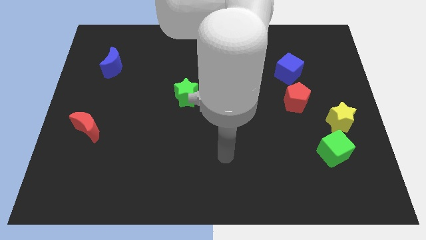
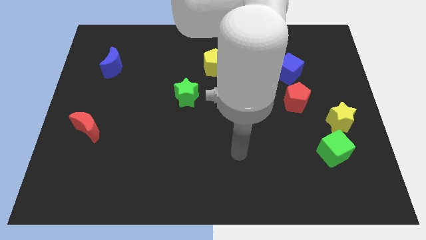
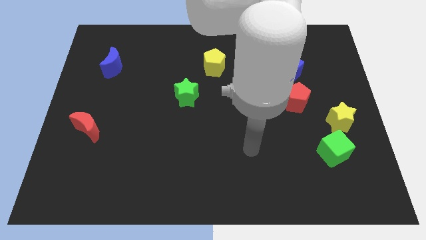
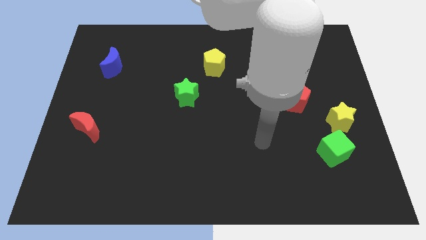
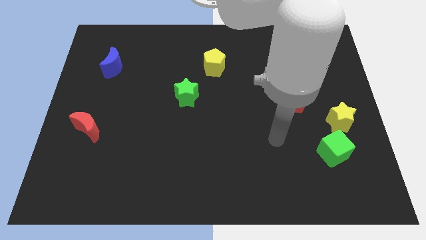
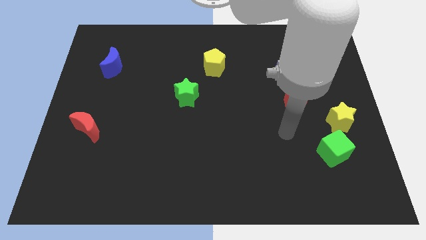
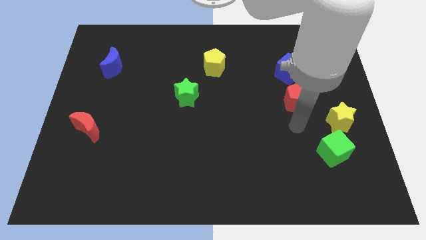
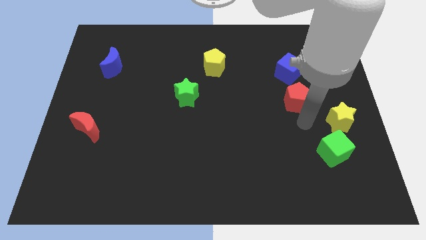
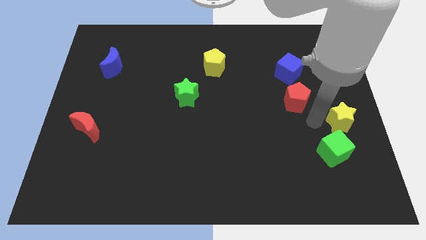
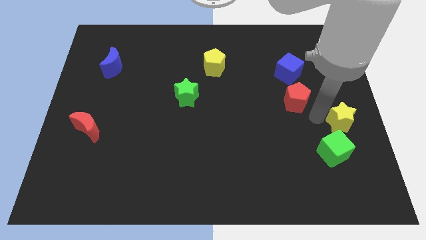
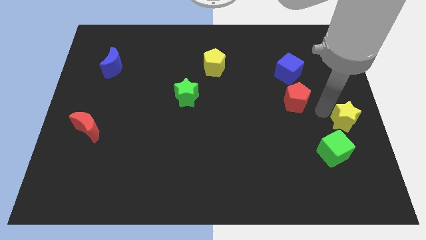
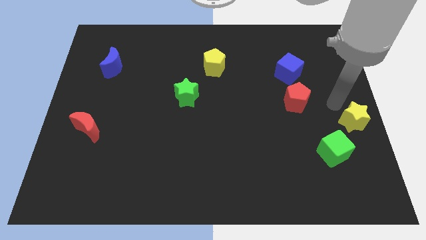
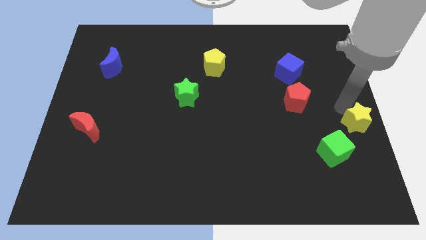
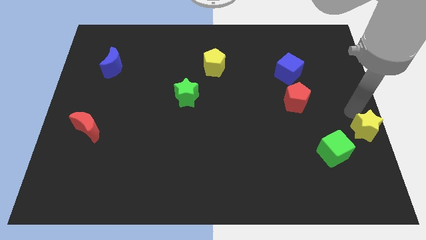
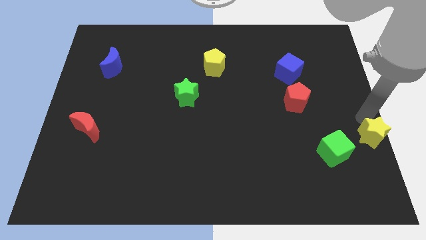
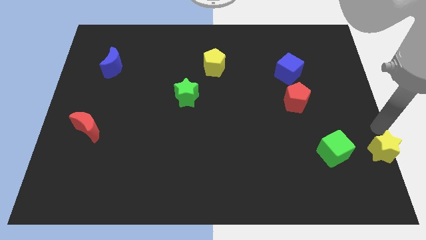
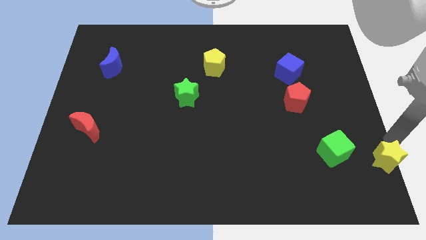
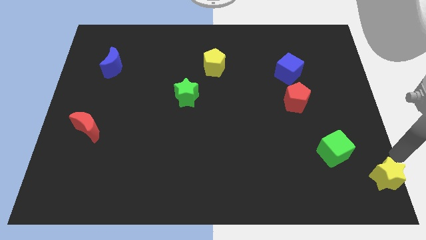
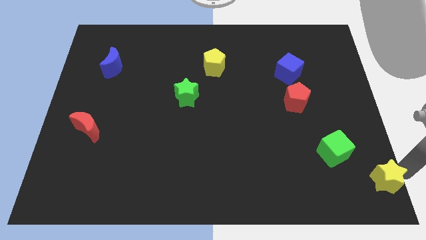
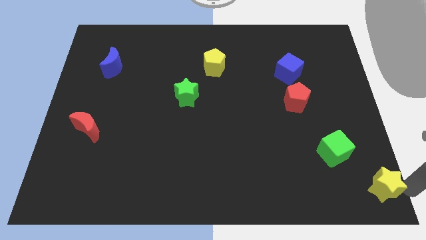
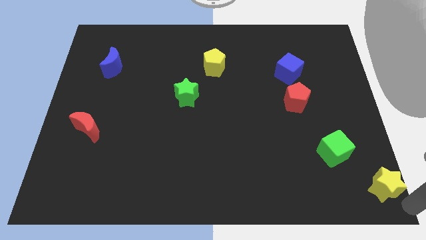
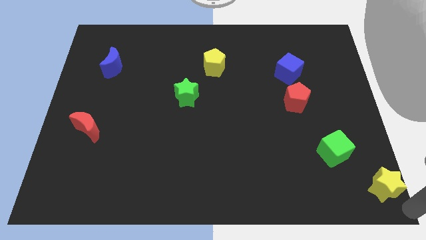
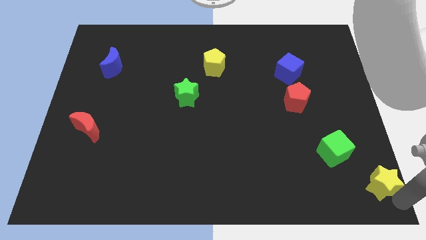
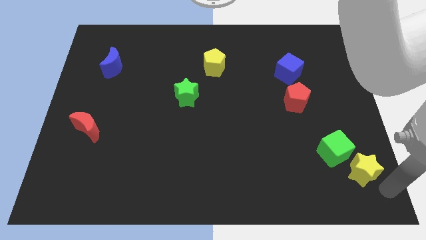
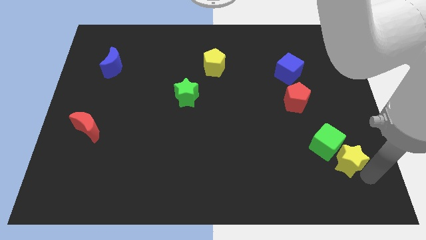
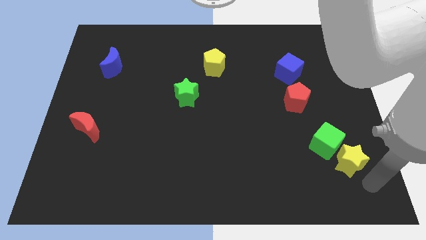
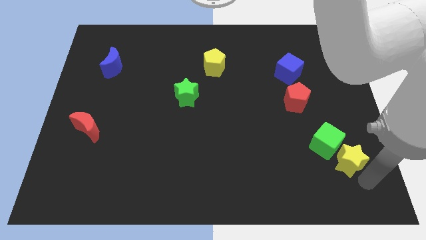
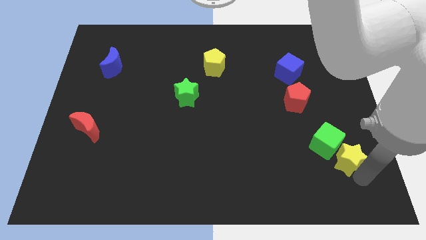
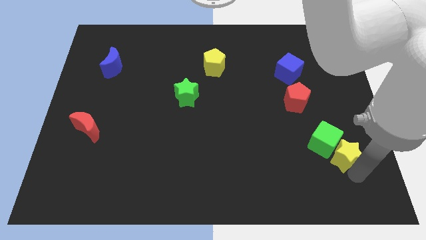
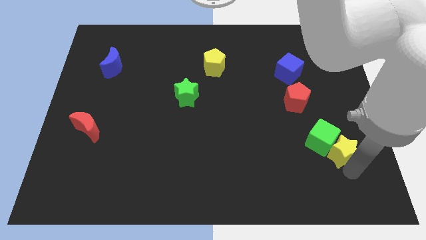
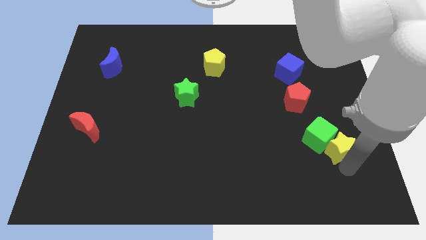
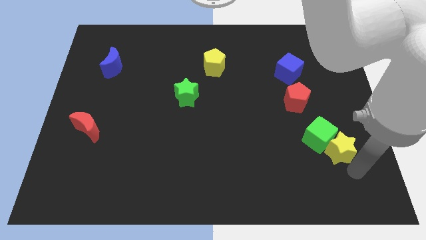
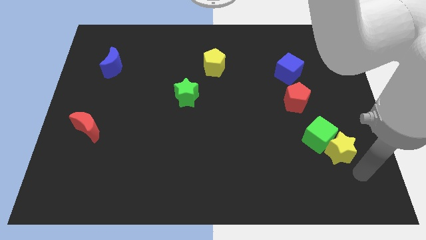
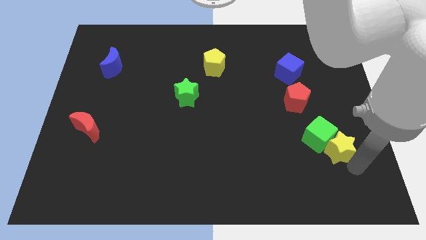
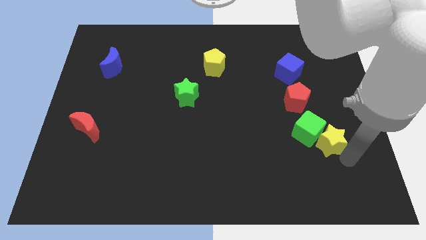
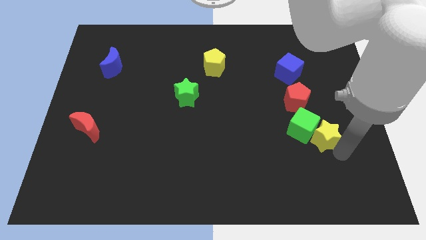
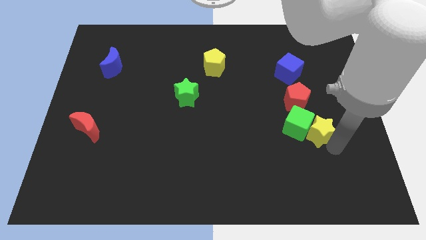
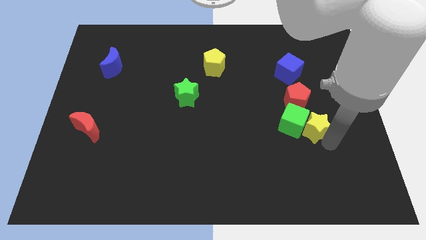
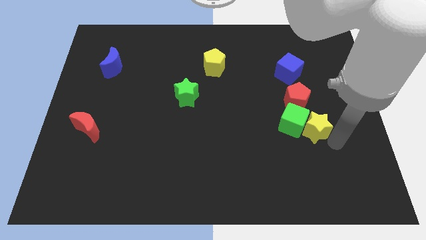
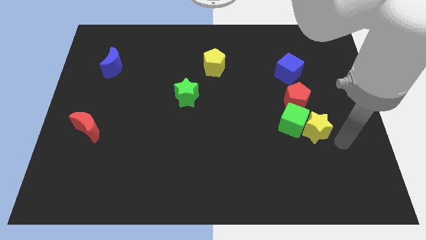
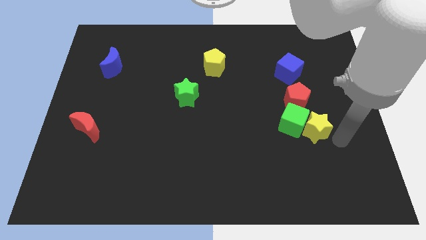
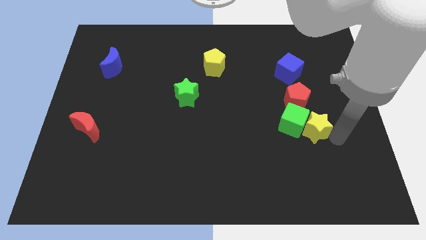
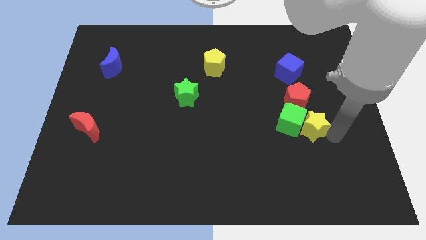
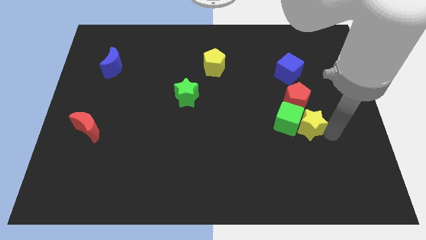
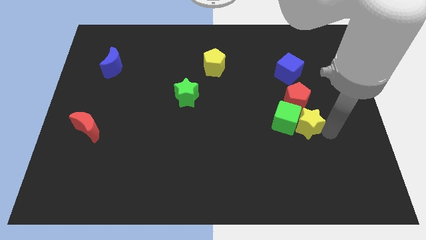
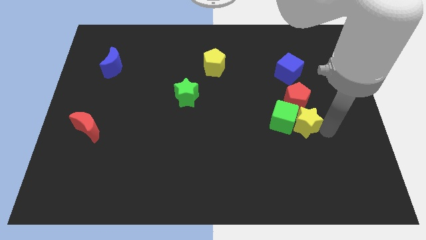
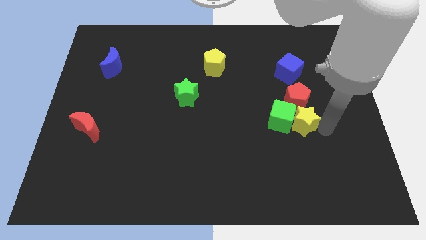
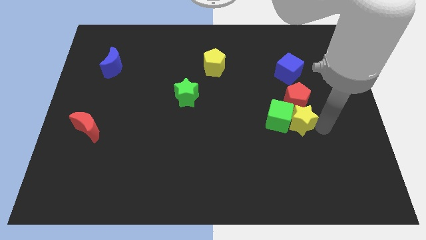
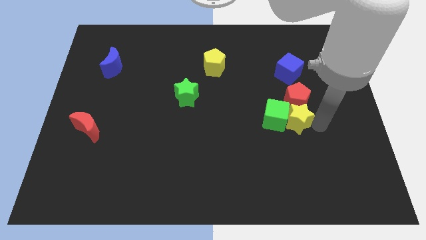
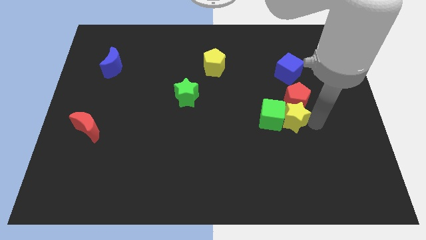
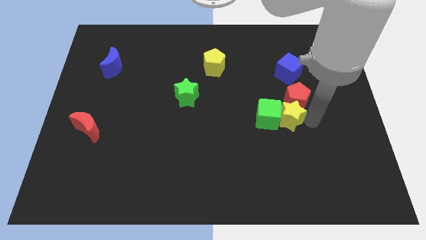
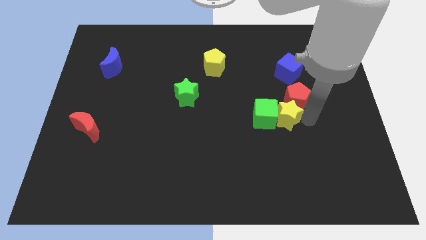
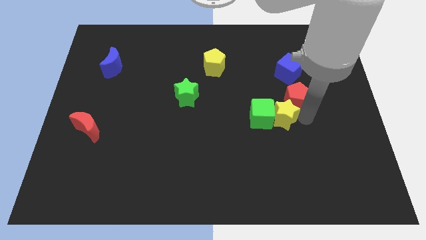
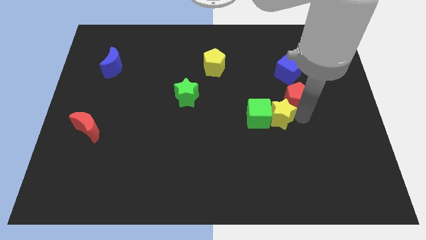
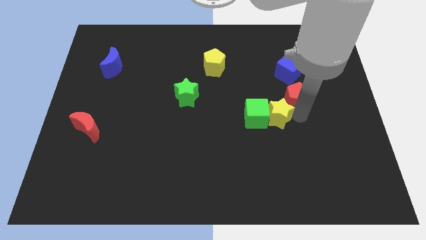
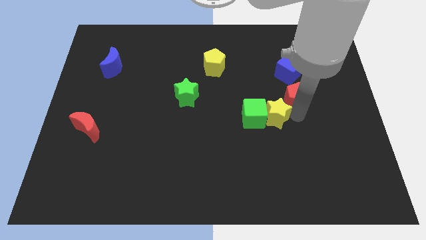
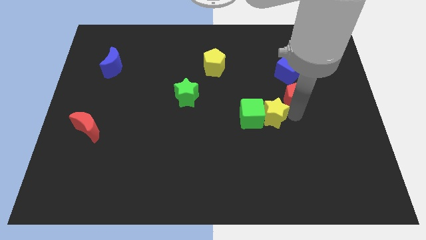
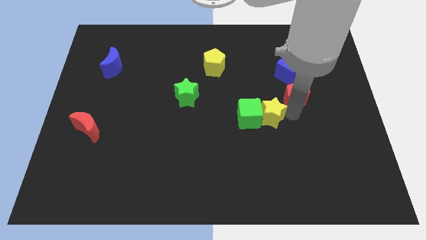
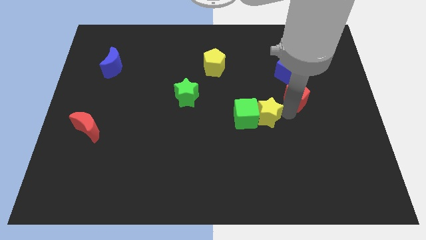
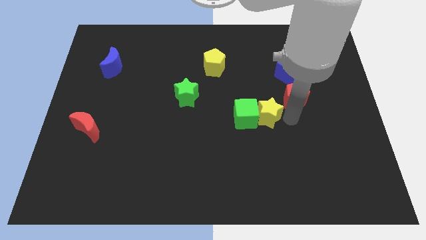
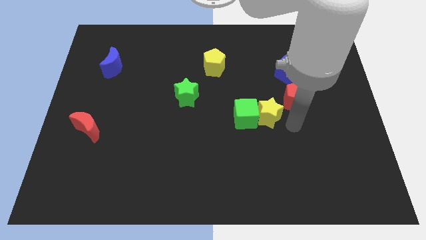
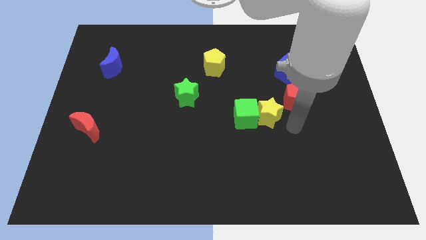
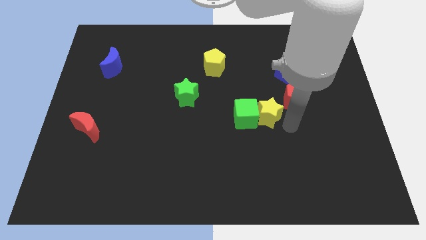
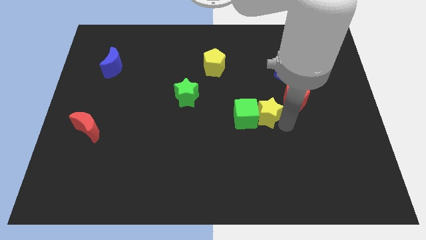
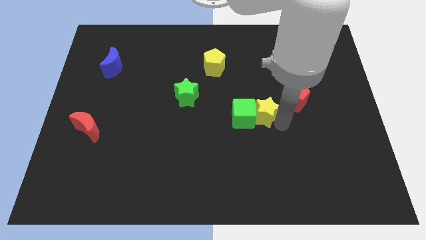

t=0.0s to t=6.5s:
put the yellow star to the center of the board

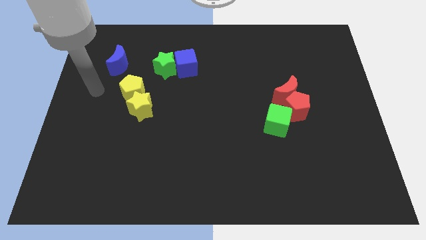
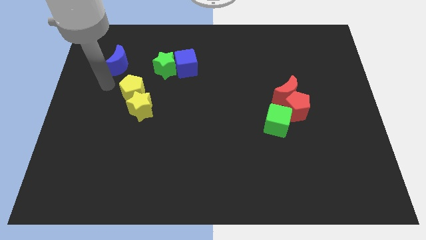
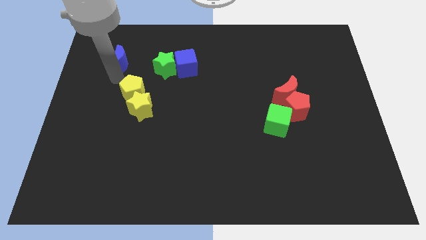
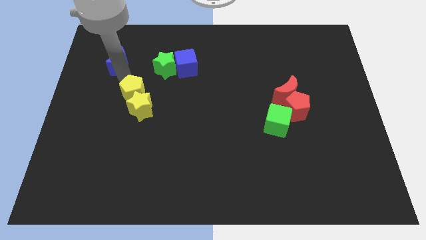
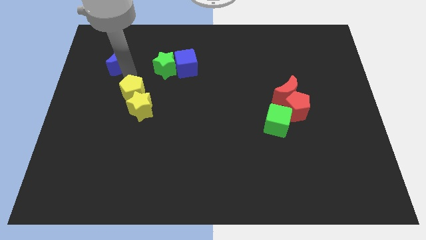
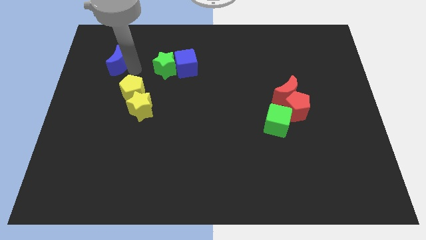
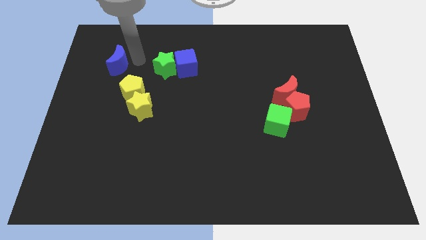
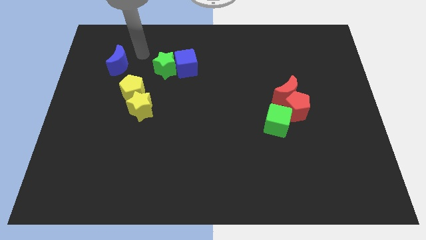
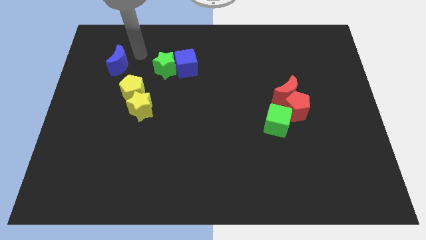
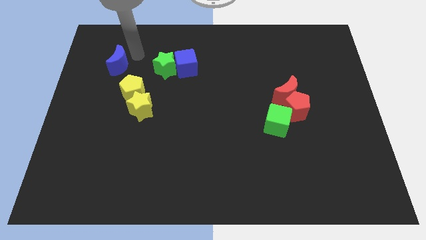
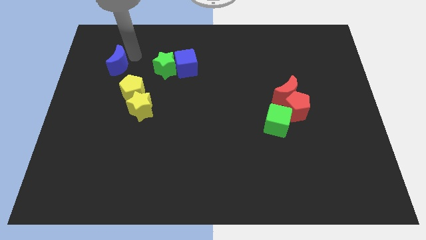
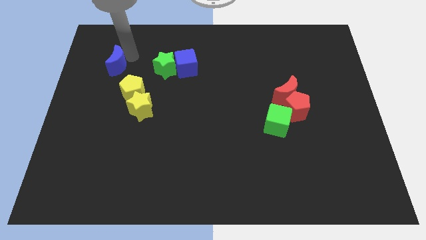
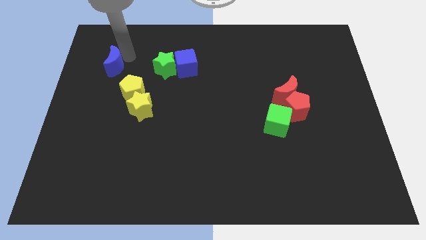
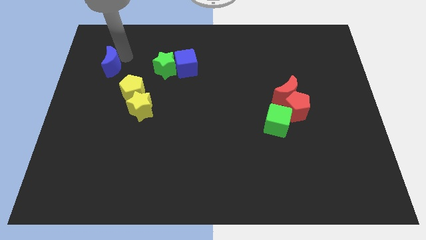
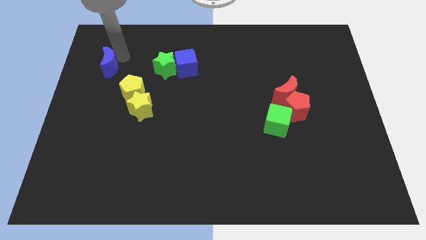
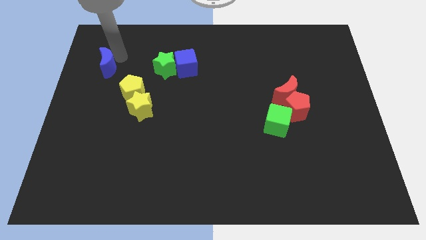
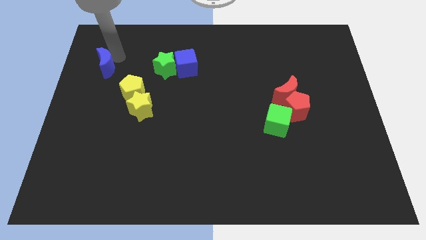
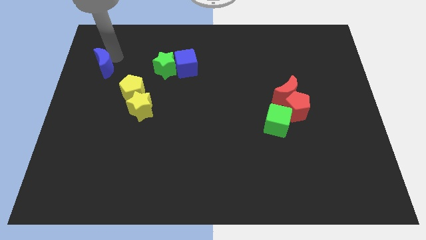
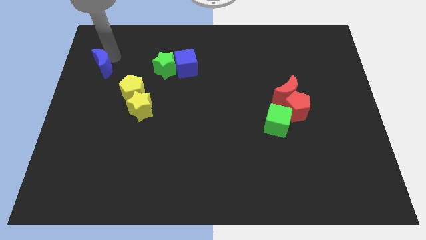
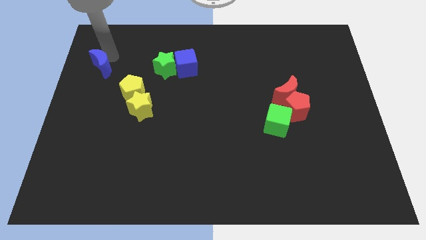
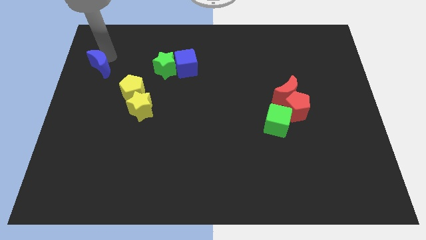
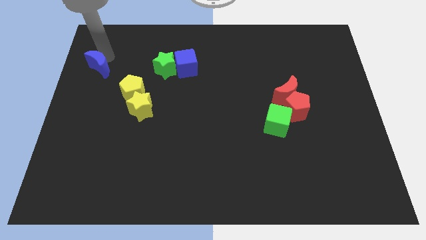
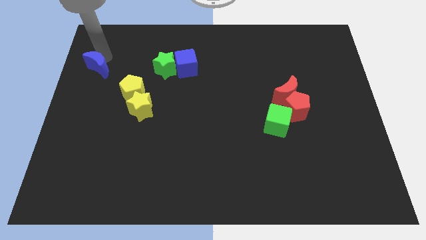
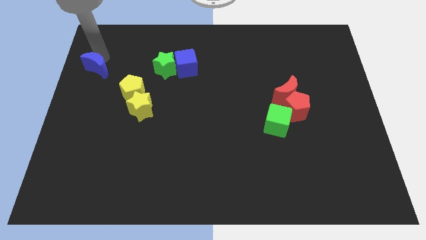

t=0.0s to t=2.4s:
put the blue moon to the center left
